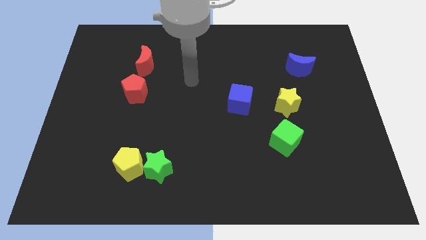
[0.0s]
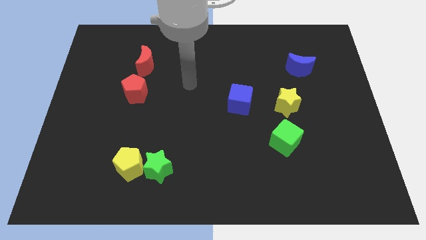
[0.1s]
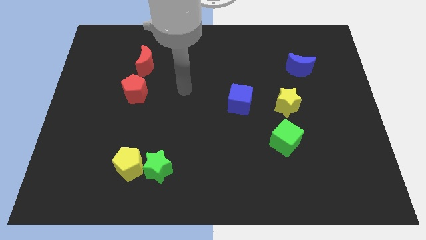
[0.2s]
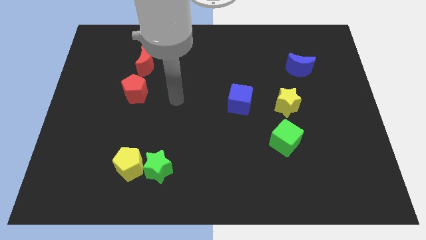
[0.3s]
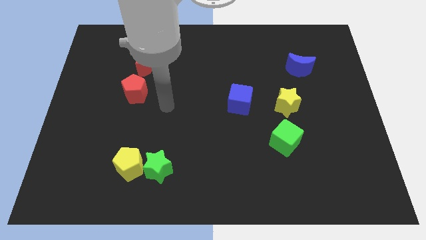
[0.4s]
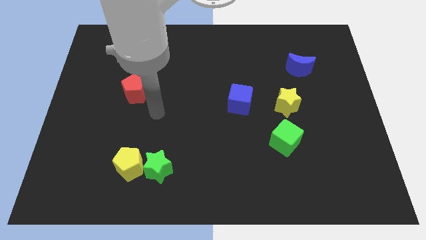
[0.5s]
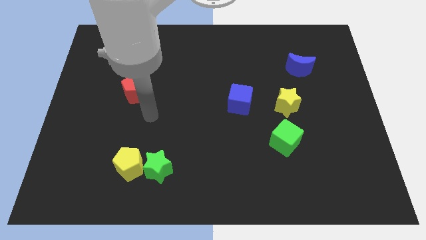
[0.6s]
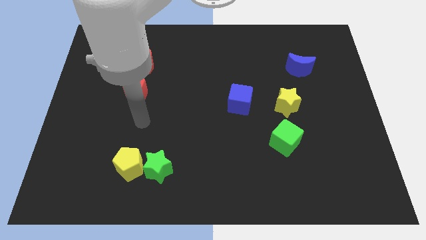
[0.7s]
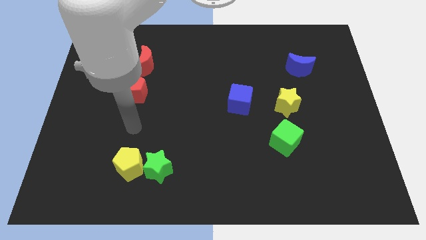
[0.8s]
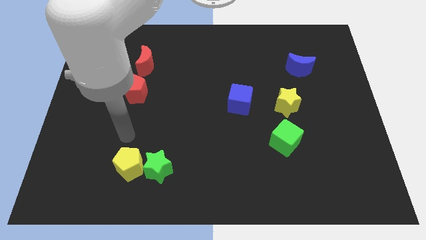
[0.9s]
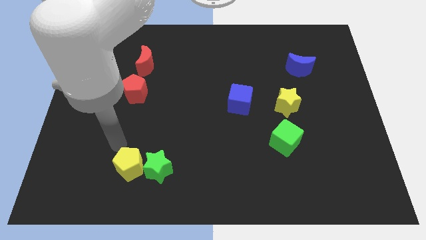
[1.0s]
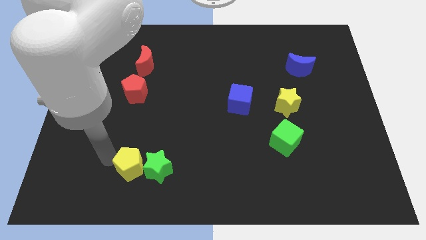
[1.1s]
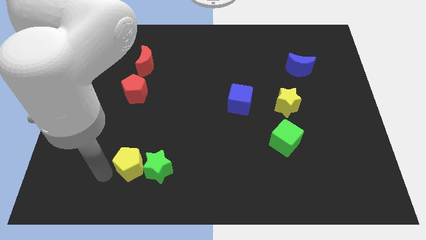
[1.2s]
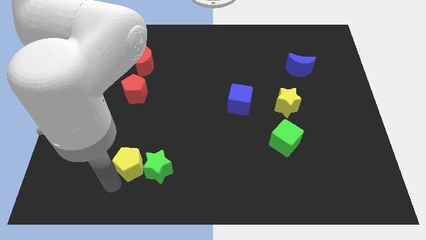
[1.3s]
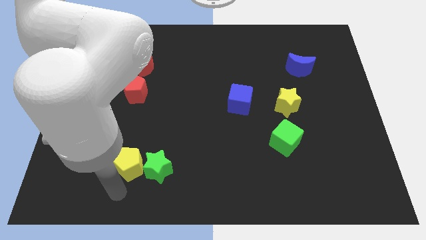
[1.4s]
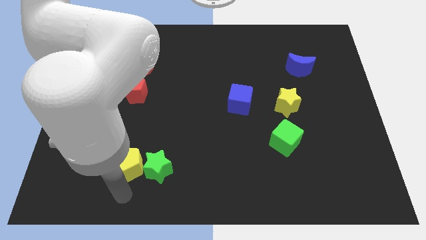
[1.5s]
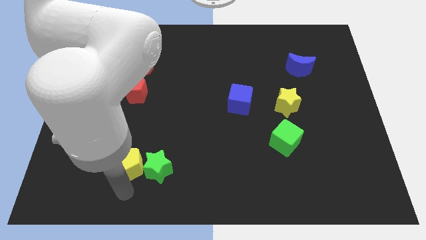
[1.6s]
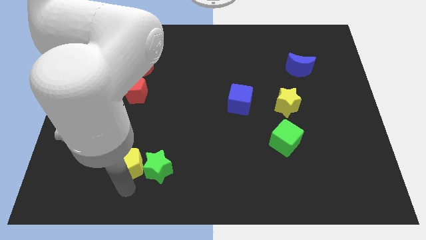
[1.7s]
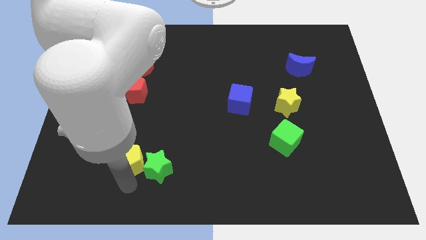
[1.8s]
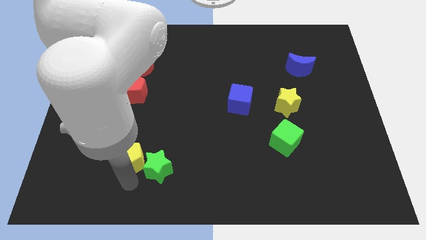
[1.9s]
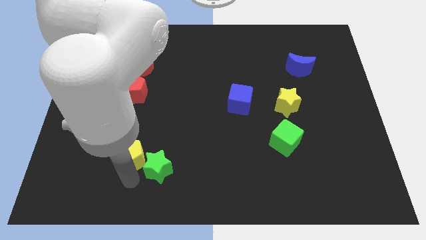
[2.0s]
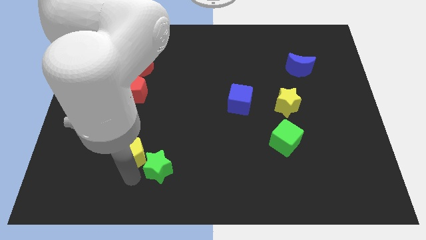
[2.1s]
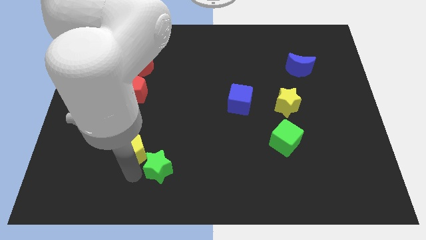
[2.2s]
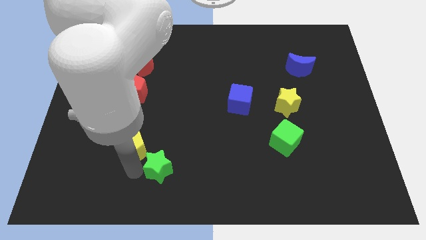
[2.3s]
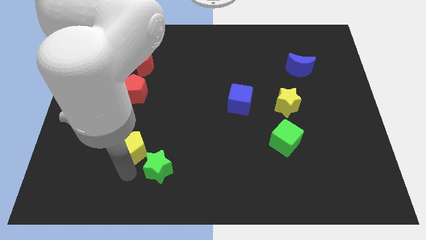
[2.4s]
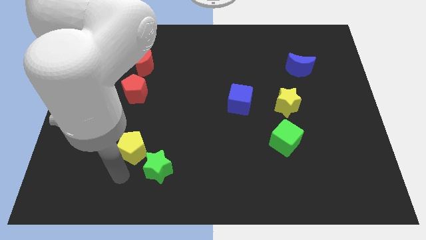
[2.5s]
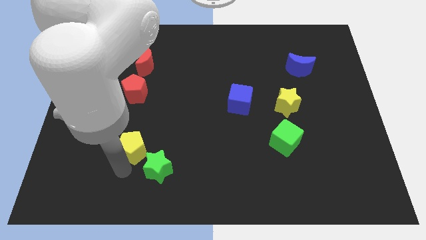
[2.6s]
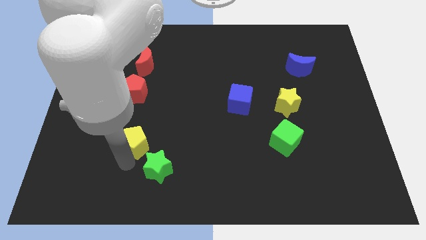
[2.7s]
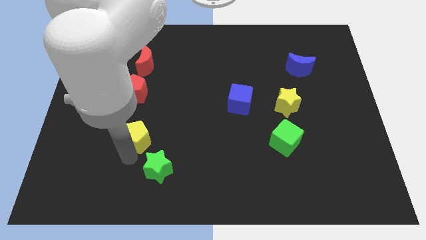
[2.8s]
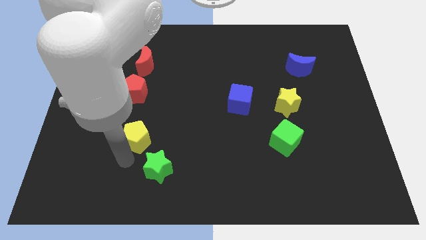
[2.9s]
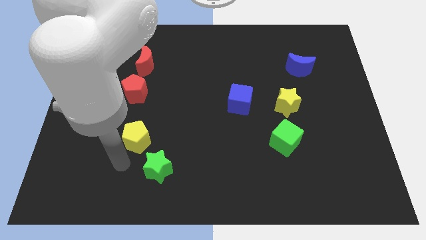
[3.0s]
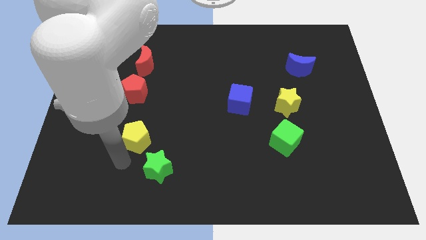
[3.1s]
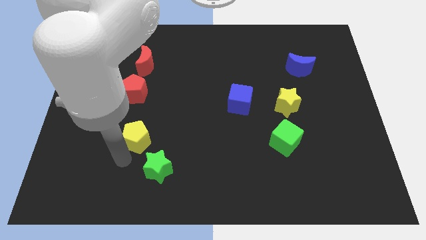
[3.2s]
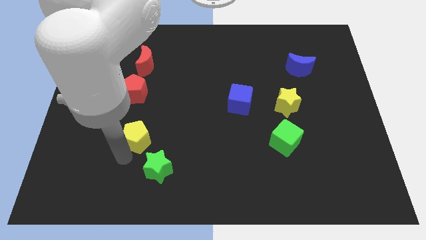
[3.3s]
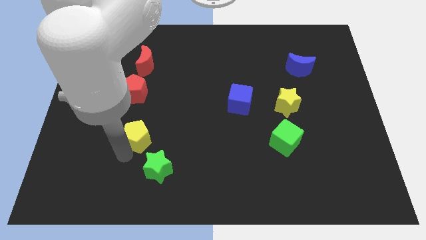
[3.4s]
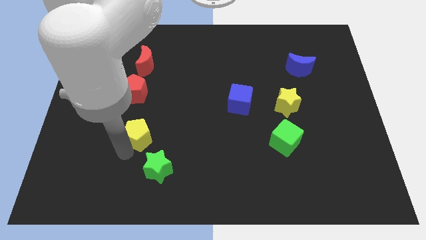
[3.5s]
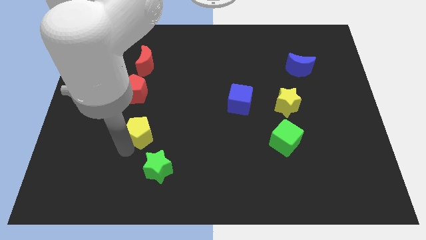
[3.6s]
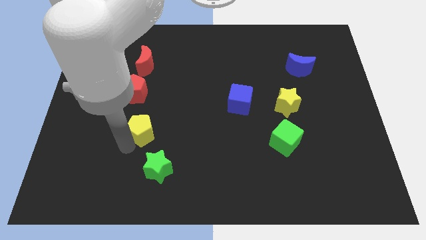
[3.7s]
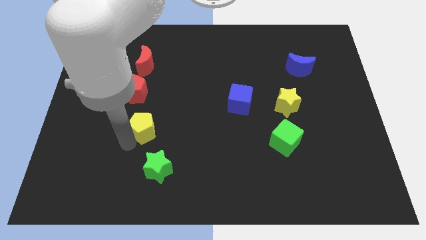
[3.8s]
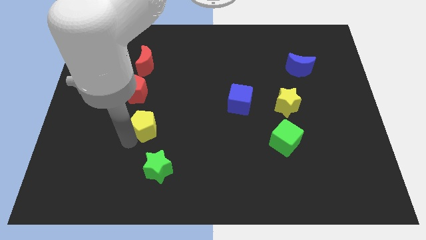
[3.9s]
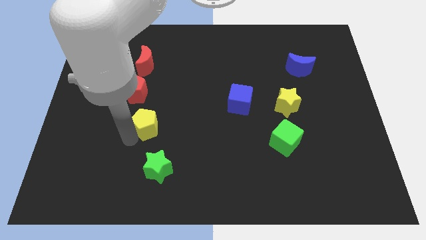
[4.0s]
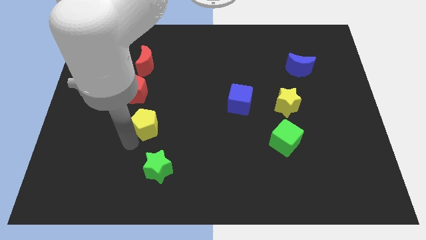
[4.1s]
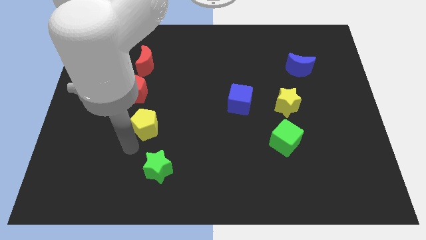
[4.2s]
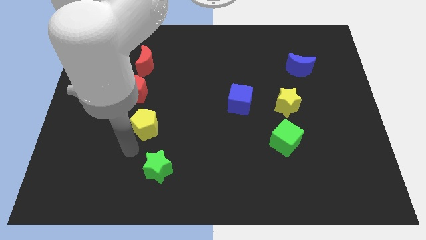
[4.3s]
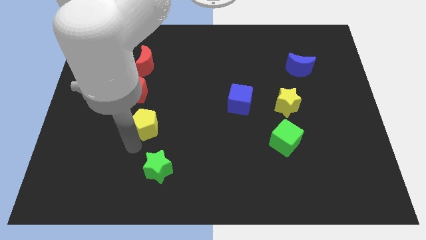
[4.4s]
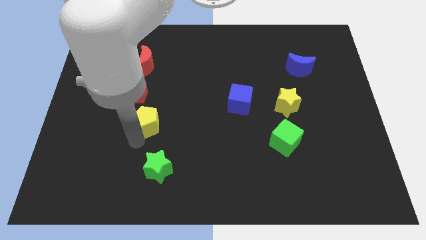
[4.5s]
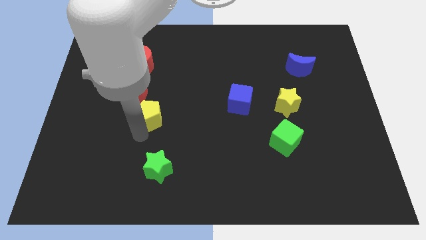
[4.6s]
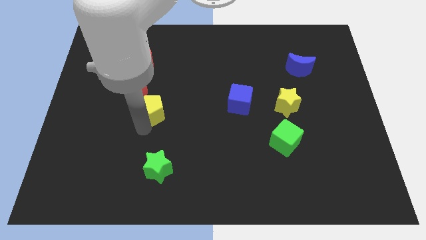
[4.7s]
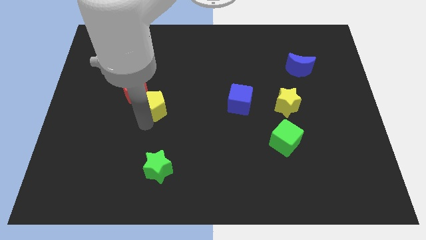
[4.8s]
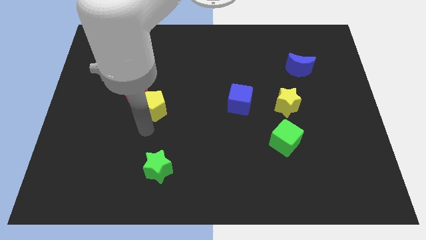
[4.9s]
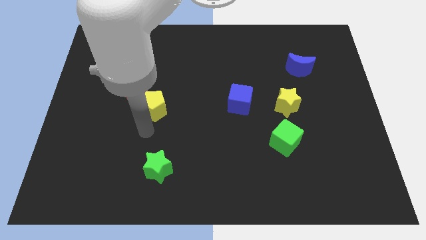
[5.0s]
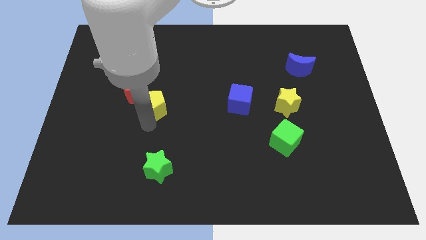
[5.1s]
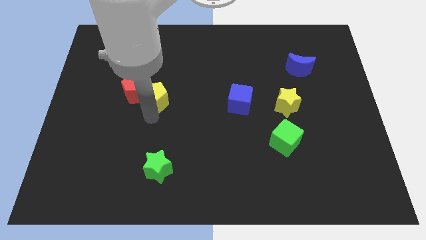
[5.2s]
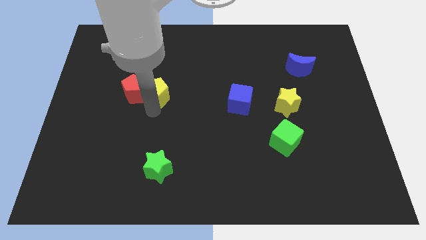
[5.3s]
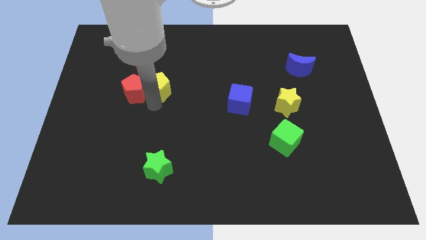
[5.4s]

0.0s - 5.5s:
move the yellow pentagon to the bottom right side of the red moon

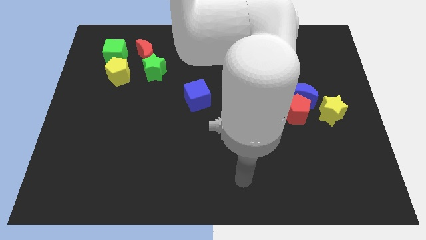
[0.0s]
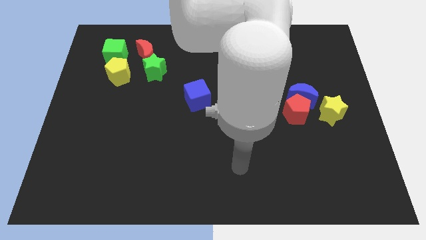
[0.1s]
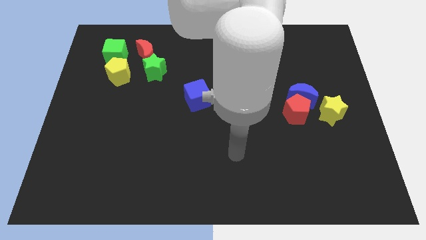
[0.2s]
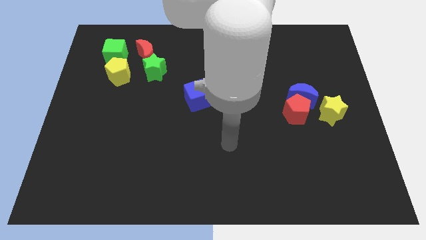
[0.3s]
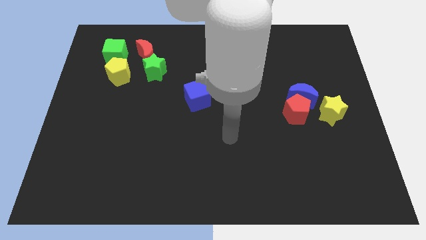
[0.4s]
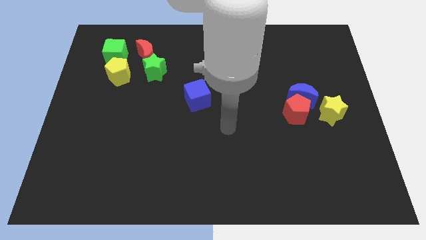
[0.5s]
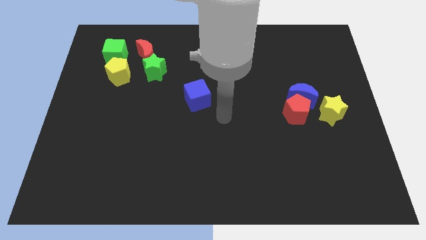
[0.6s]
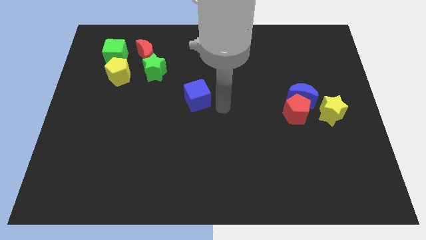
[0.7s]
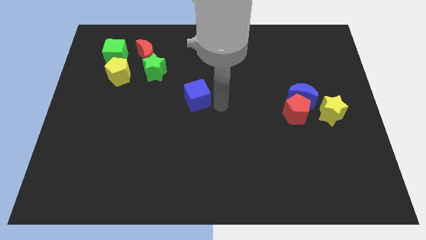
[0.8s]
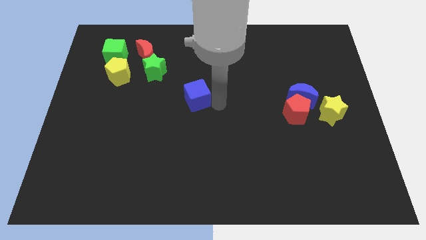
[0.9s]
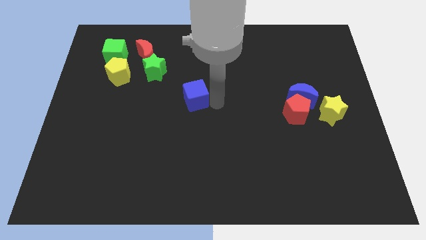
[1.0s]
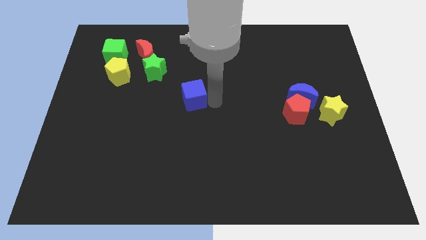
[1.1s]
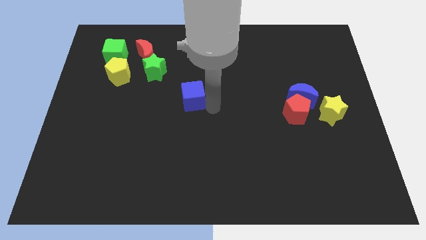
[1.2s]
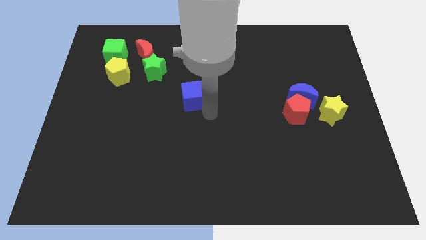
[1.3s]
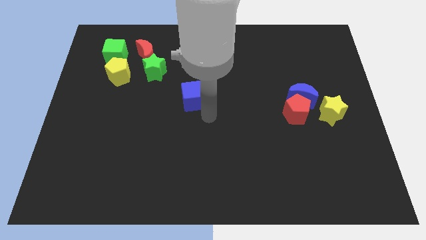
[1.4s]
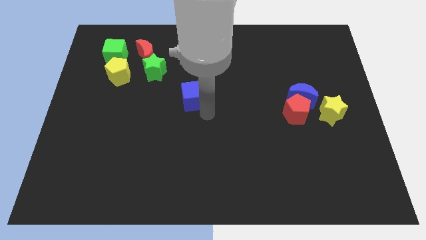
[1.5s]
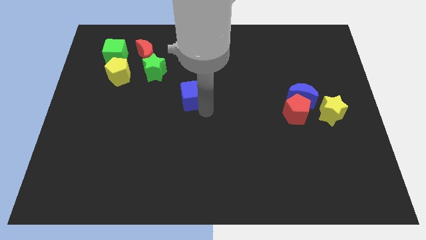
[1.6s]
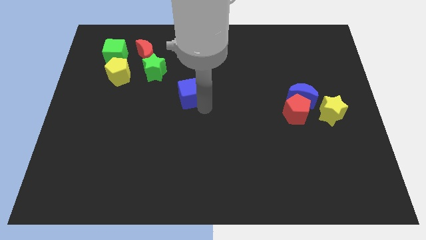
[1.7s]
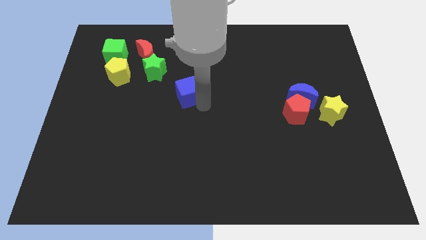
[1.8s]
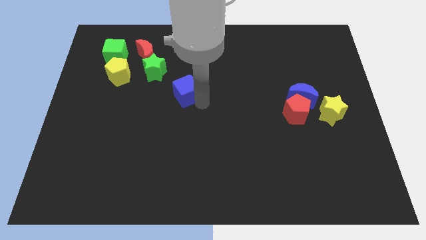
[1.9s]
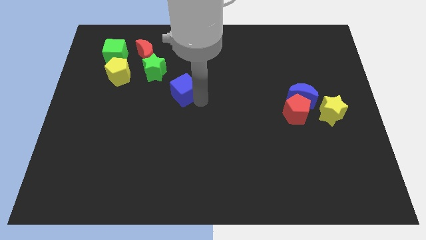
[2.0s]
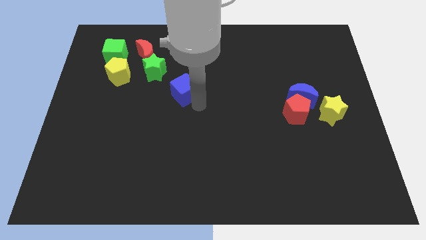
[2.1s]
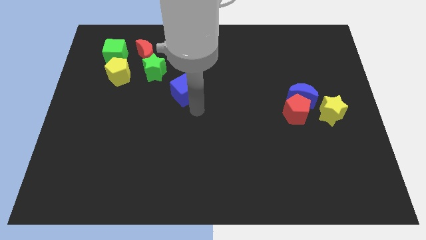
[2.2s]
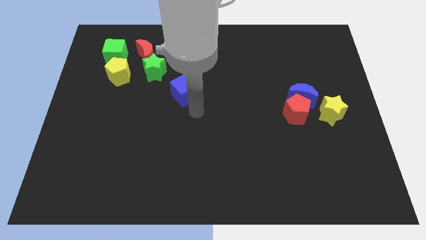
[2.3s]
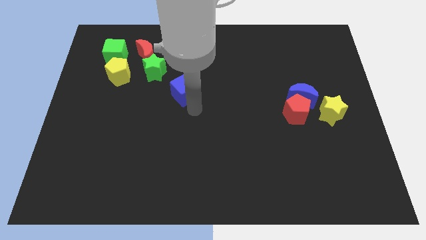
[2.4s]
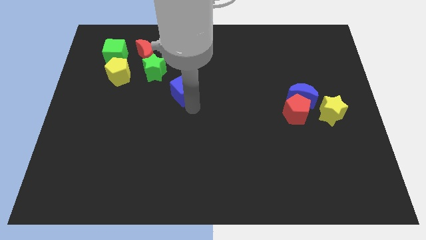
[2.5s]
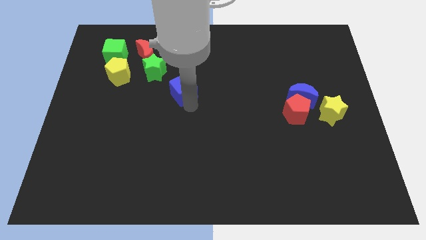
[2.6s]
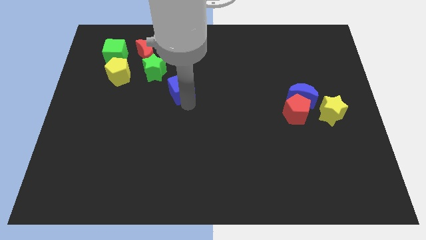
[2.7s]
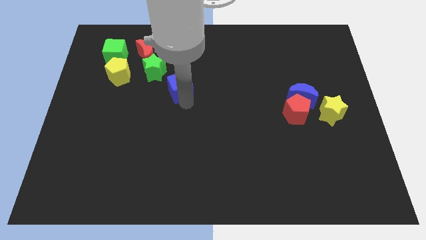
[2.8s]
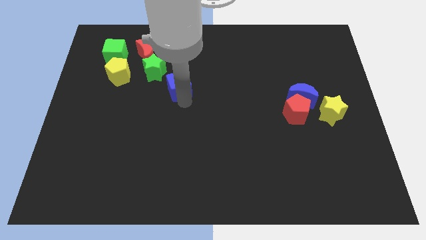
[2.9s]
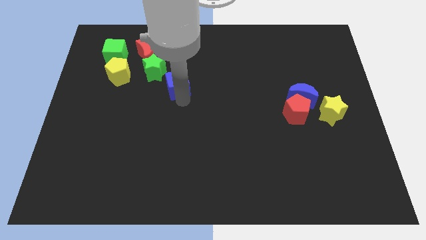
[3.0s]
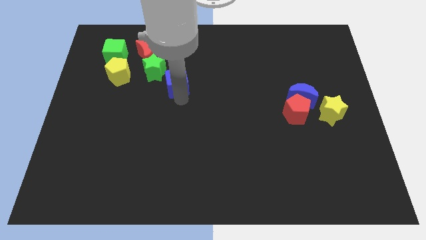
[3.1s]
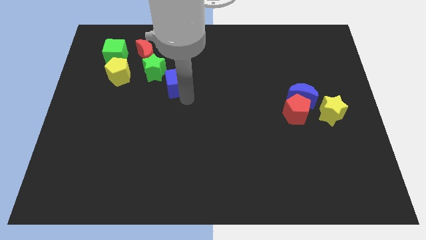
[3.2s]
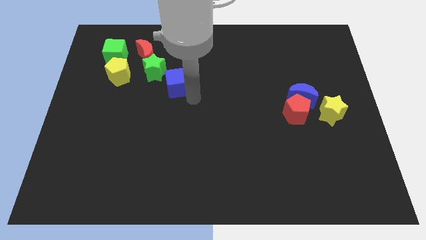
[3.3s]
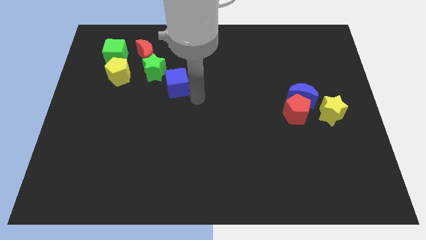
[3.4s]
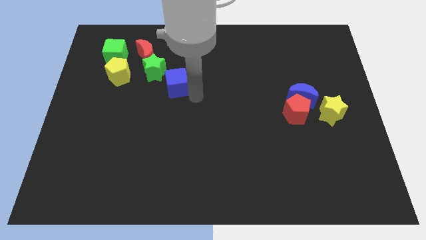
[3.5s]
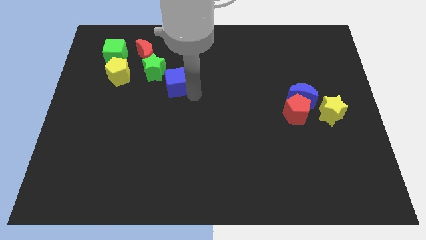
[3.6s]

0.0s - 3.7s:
move the blue cube to the right of the yellow pentagon
